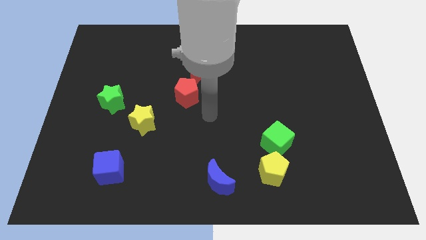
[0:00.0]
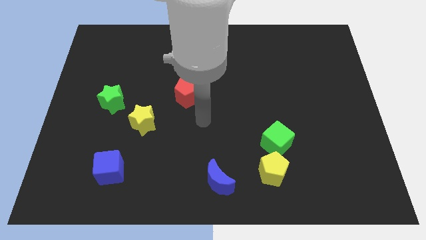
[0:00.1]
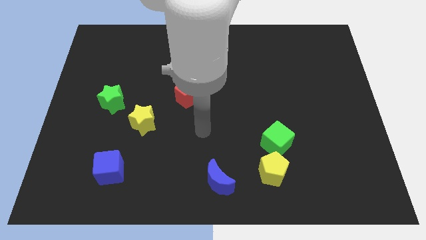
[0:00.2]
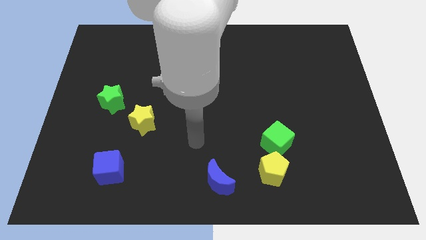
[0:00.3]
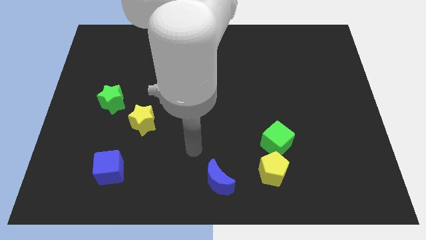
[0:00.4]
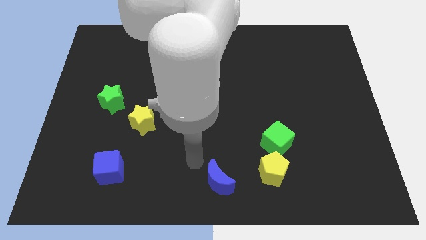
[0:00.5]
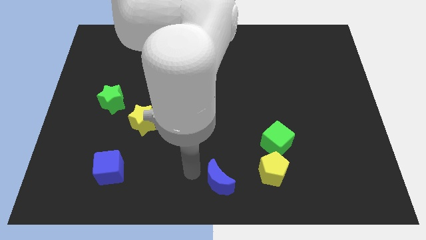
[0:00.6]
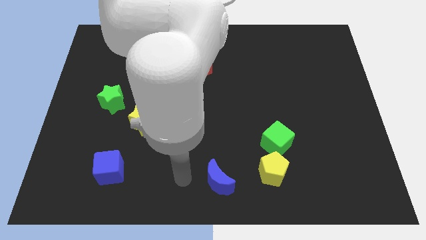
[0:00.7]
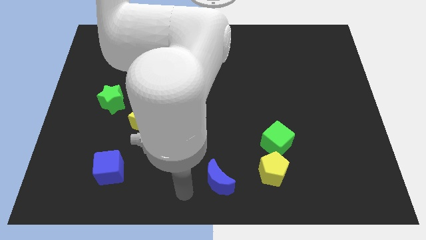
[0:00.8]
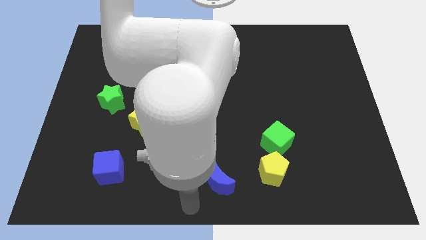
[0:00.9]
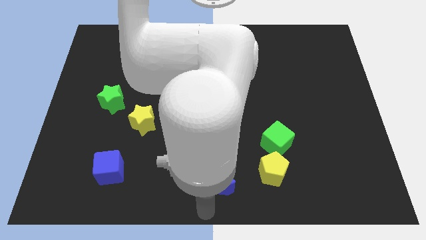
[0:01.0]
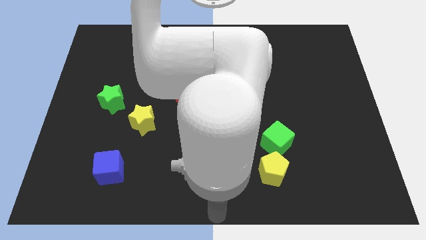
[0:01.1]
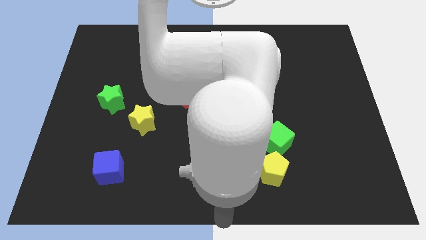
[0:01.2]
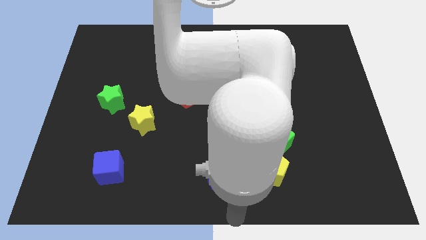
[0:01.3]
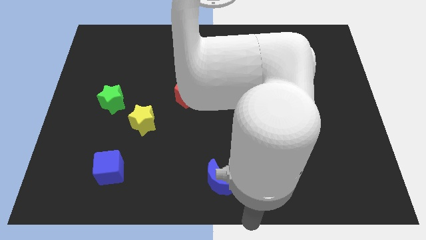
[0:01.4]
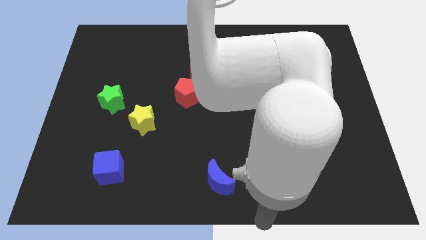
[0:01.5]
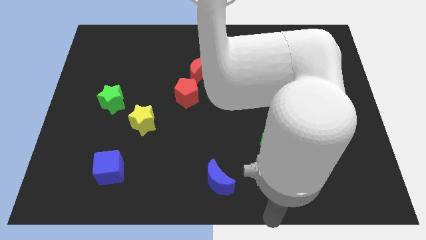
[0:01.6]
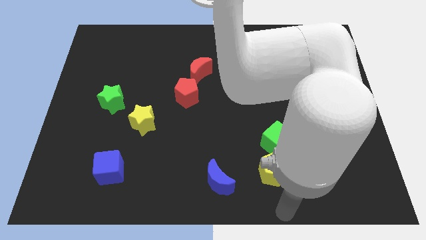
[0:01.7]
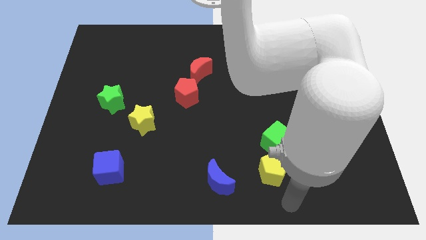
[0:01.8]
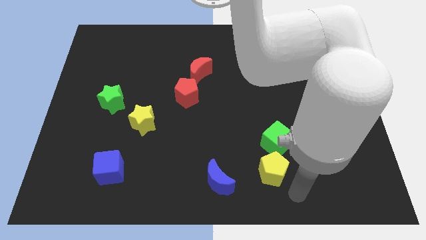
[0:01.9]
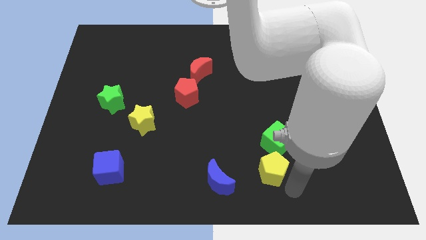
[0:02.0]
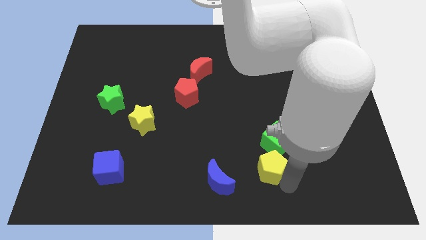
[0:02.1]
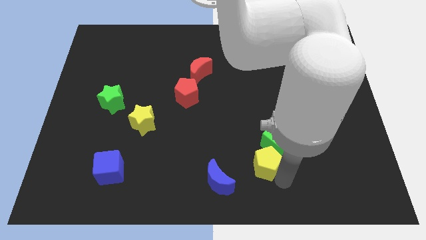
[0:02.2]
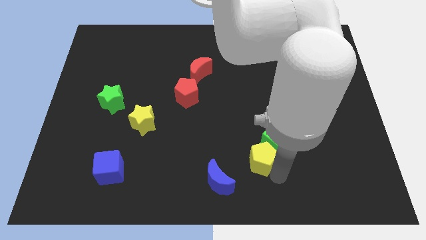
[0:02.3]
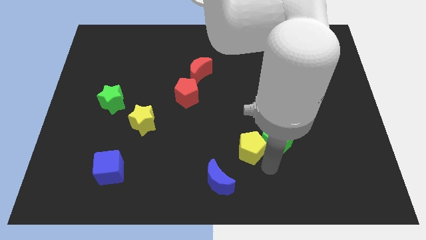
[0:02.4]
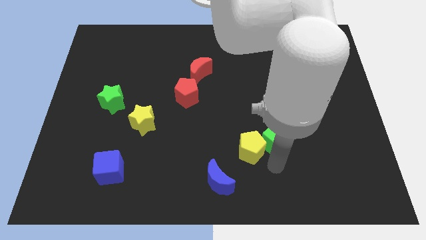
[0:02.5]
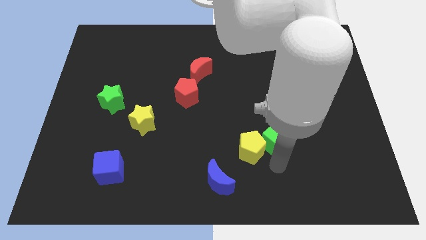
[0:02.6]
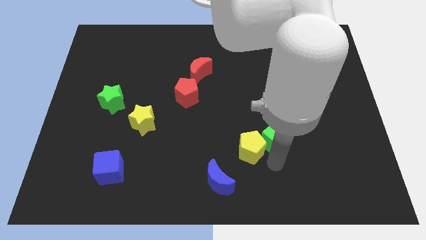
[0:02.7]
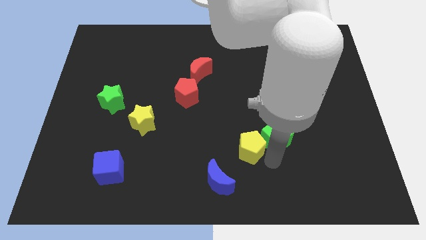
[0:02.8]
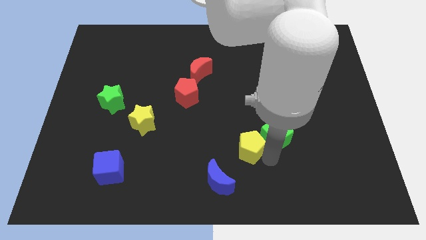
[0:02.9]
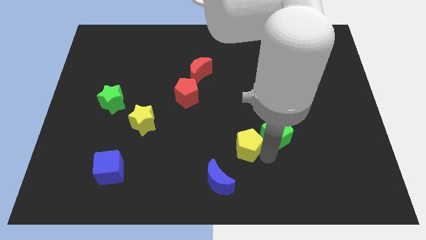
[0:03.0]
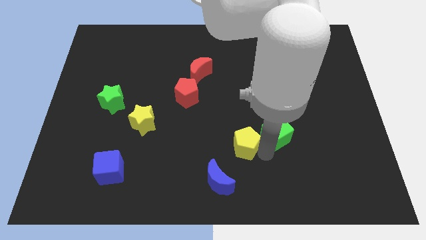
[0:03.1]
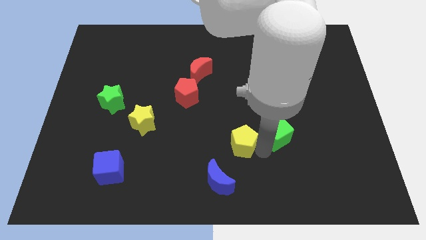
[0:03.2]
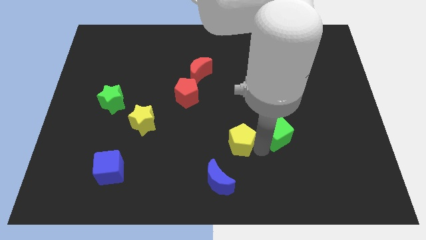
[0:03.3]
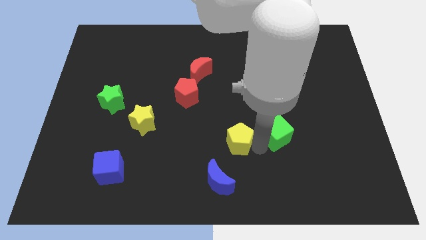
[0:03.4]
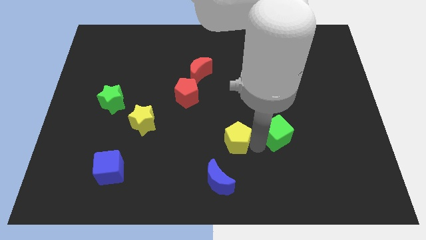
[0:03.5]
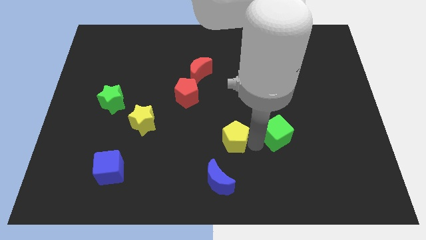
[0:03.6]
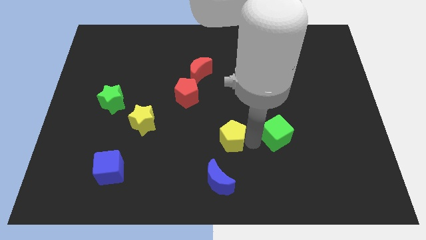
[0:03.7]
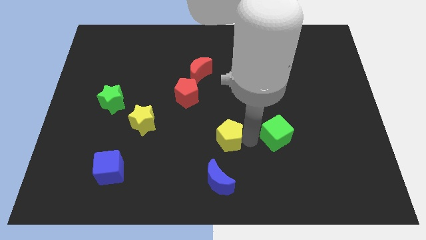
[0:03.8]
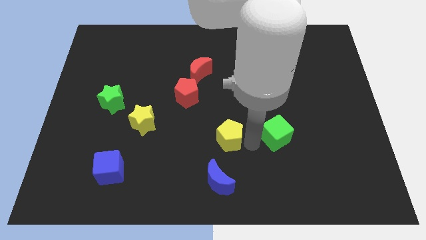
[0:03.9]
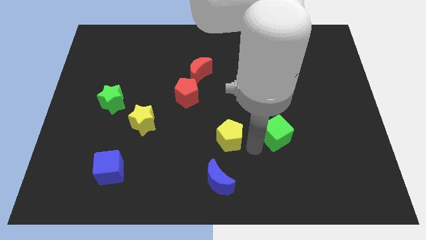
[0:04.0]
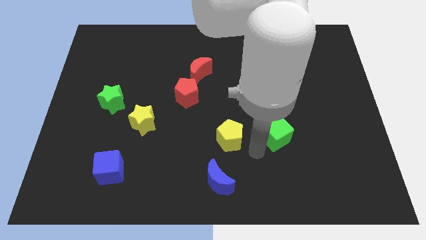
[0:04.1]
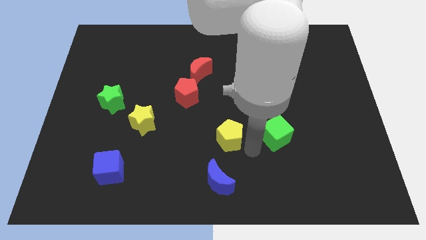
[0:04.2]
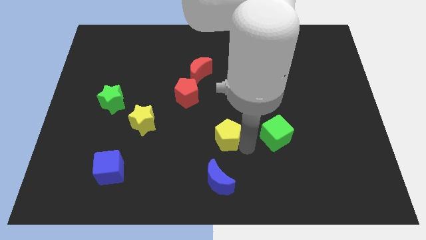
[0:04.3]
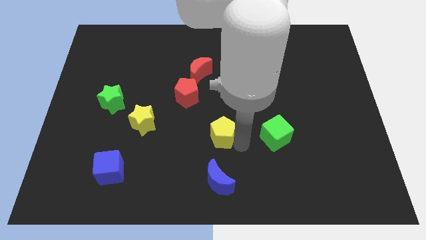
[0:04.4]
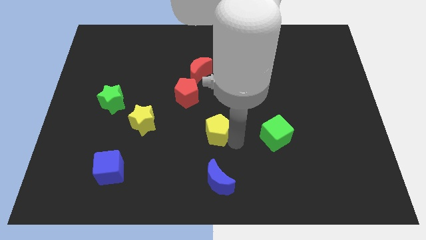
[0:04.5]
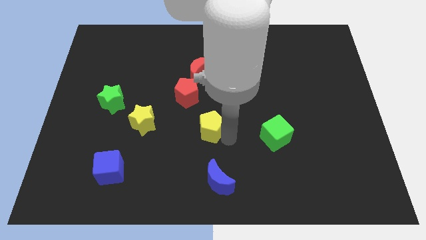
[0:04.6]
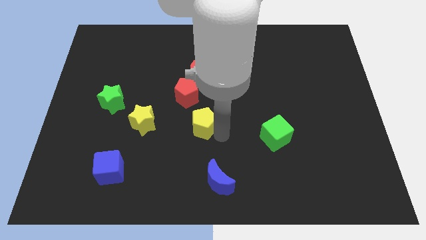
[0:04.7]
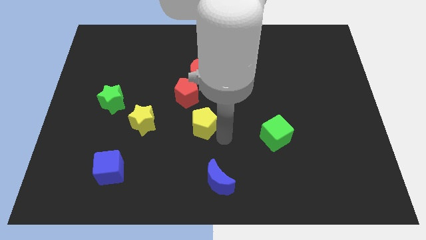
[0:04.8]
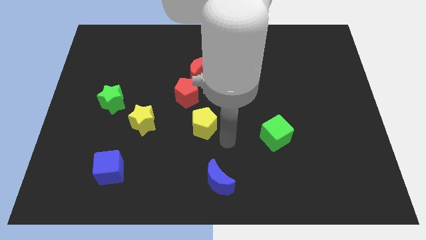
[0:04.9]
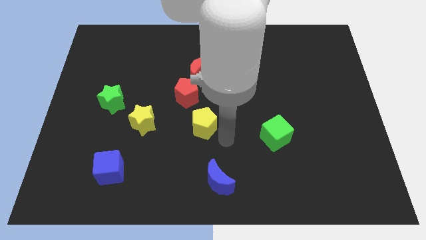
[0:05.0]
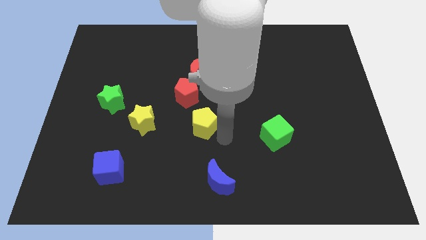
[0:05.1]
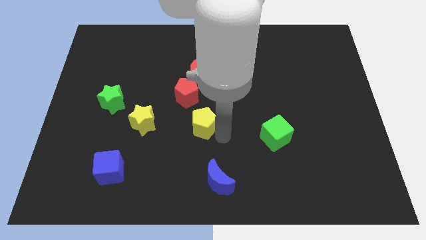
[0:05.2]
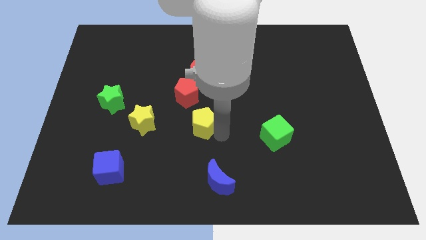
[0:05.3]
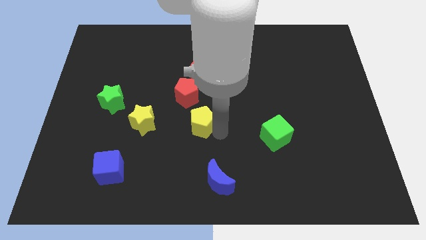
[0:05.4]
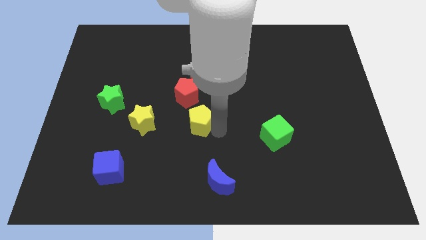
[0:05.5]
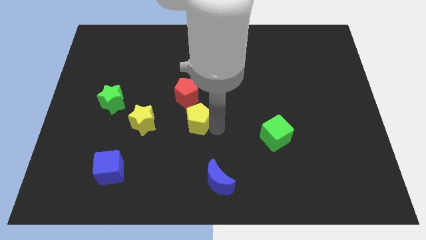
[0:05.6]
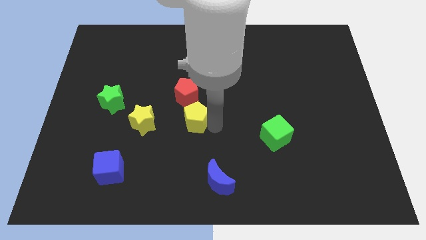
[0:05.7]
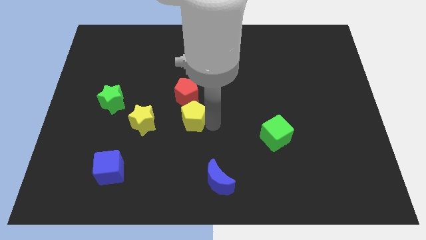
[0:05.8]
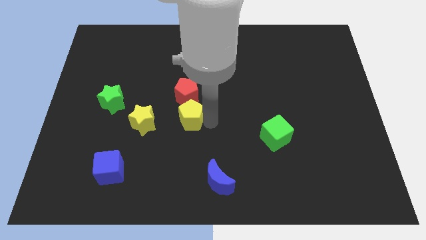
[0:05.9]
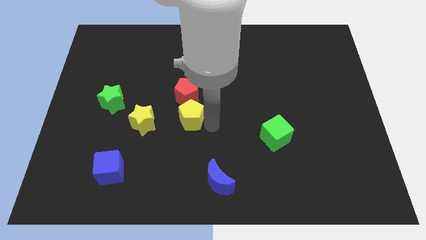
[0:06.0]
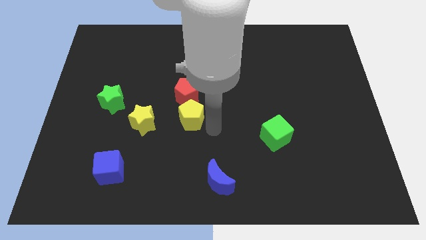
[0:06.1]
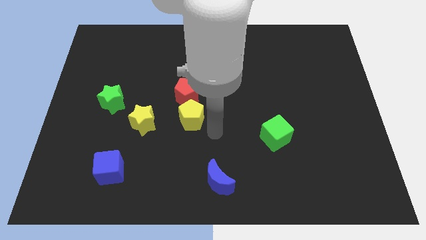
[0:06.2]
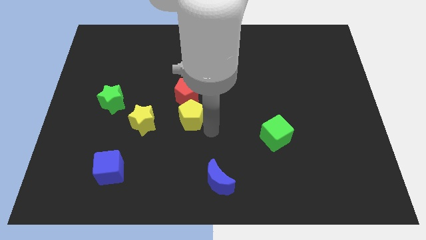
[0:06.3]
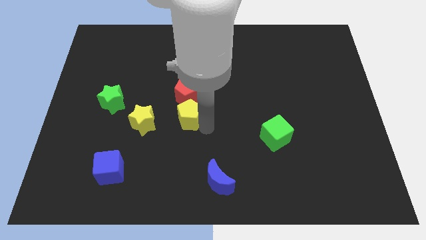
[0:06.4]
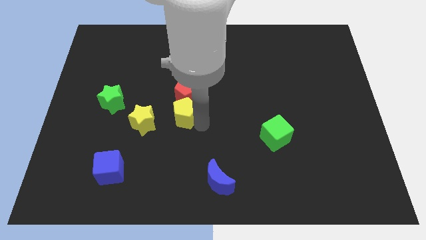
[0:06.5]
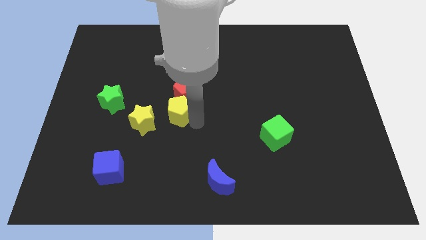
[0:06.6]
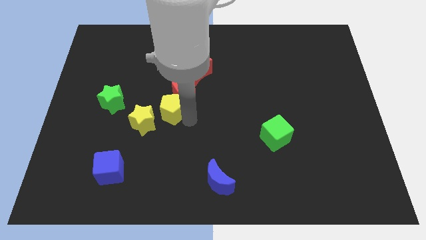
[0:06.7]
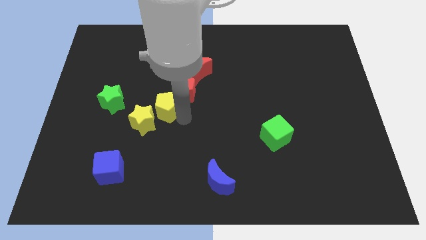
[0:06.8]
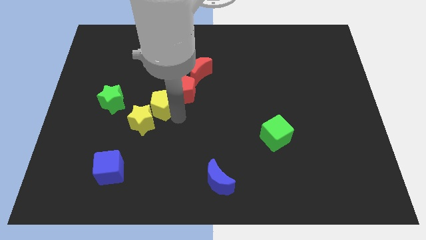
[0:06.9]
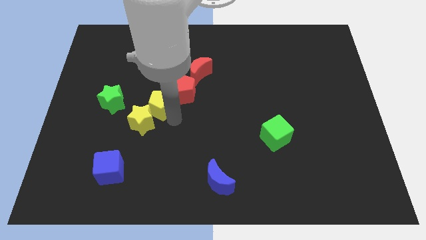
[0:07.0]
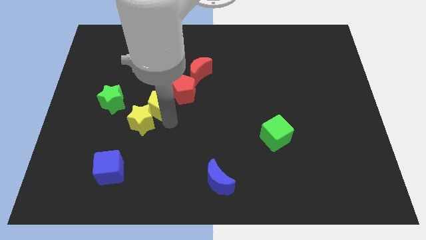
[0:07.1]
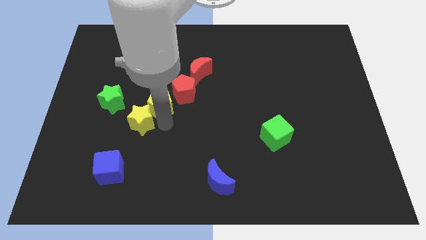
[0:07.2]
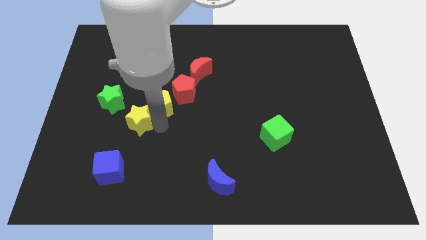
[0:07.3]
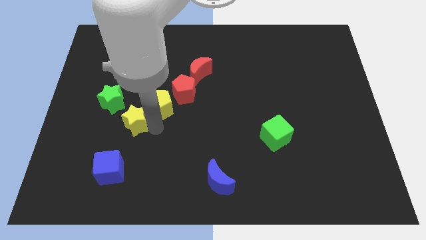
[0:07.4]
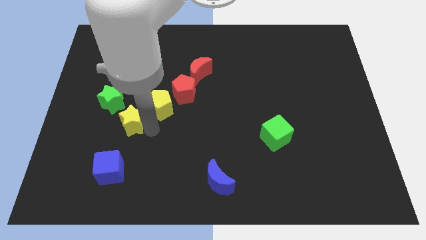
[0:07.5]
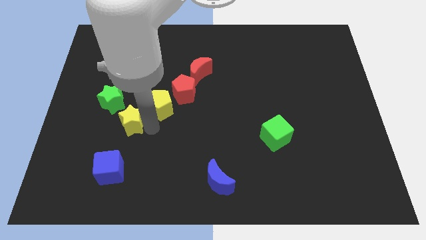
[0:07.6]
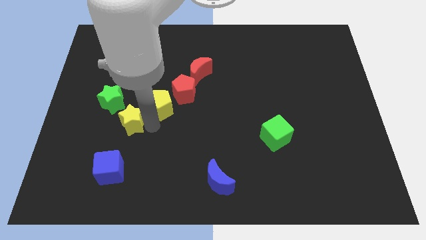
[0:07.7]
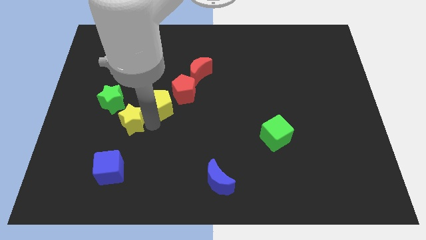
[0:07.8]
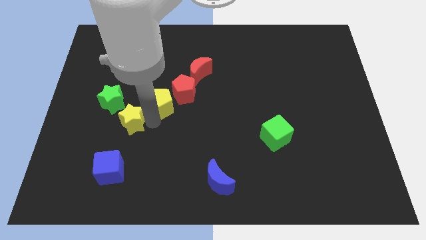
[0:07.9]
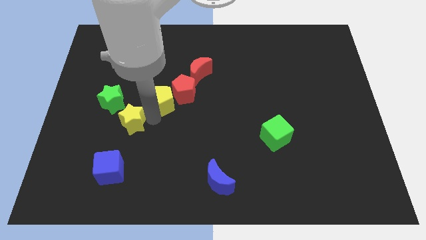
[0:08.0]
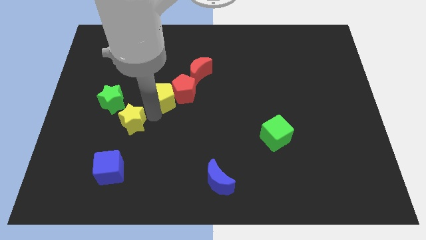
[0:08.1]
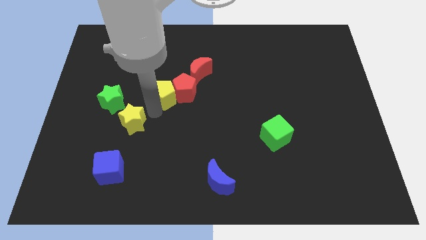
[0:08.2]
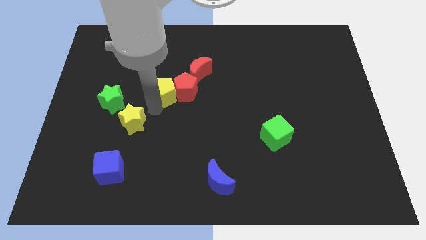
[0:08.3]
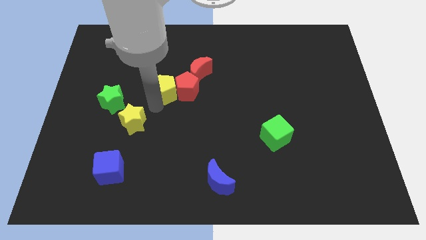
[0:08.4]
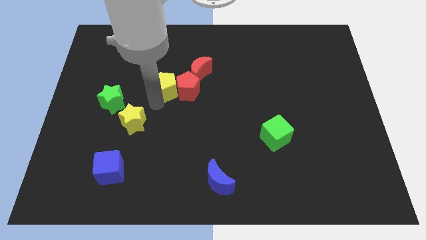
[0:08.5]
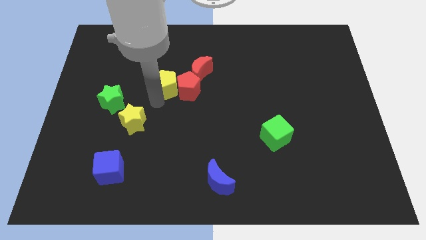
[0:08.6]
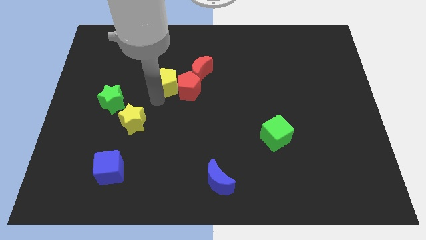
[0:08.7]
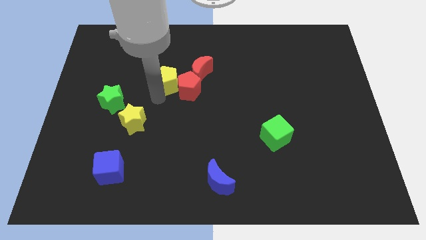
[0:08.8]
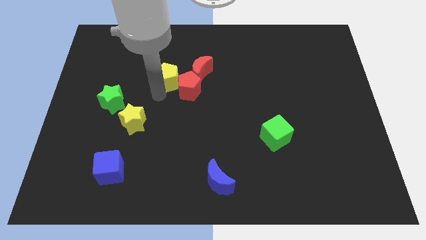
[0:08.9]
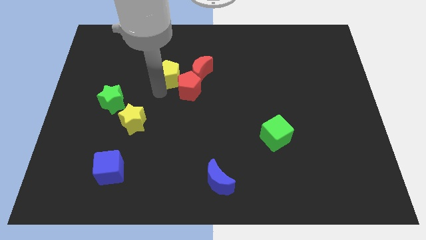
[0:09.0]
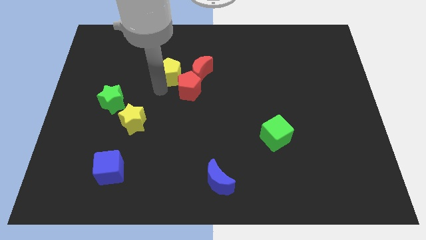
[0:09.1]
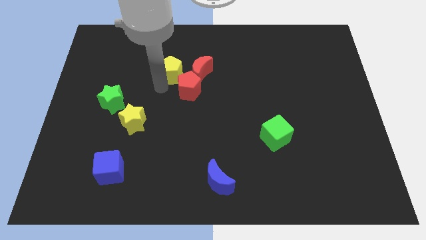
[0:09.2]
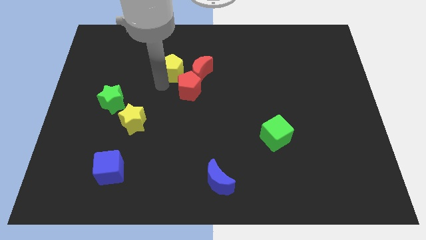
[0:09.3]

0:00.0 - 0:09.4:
slide the yellow pentagon to the top left of the red moon
